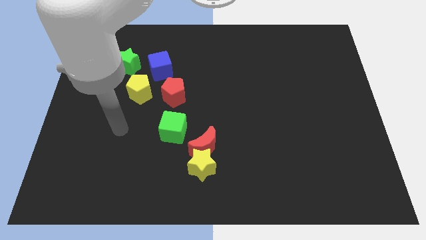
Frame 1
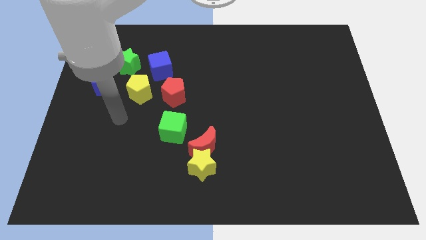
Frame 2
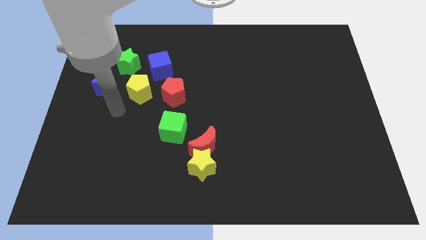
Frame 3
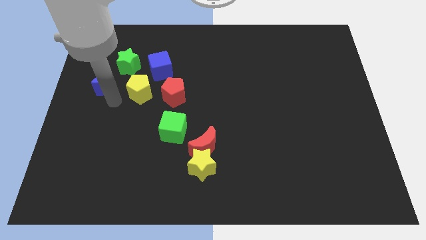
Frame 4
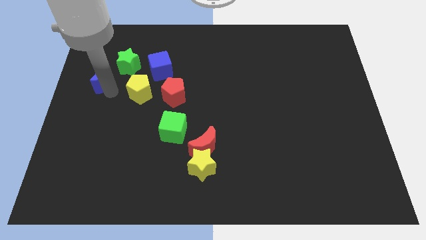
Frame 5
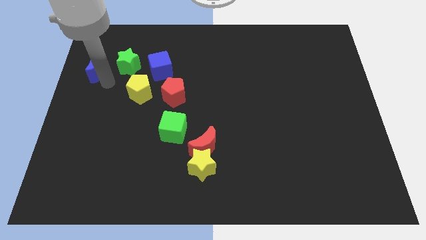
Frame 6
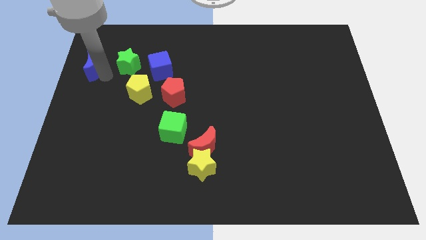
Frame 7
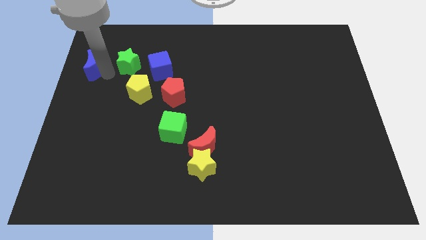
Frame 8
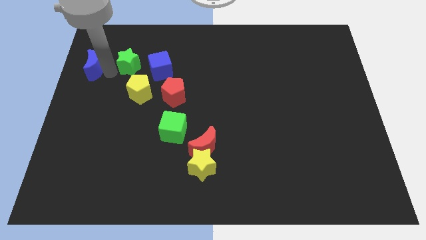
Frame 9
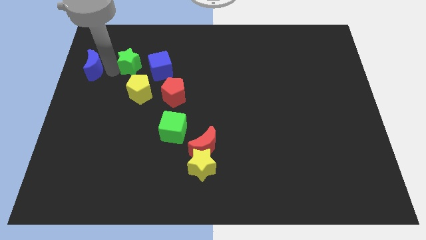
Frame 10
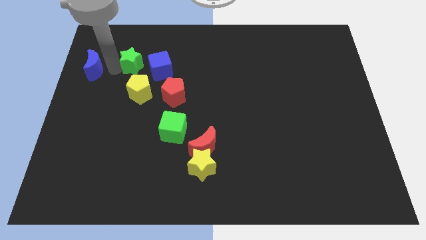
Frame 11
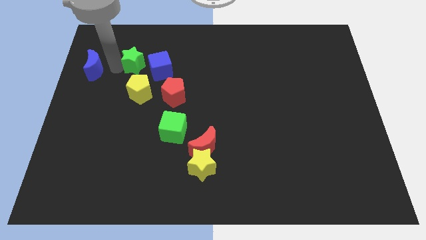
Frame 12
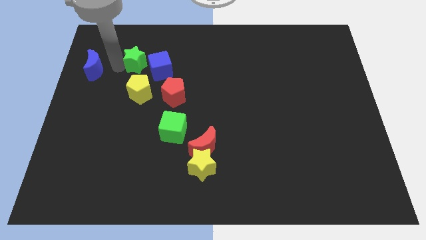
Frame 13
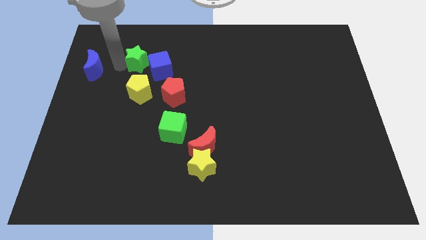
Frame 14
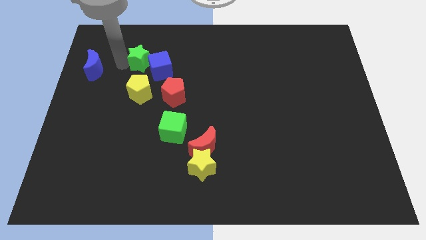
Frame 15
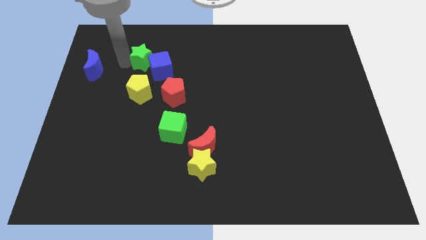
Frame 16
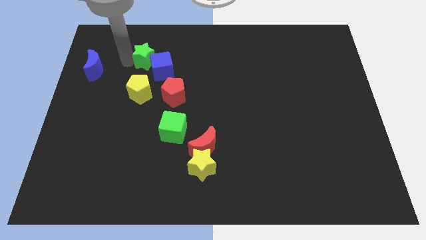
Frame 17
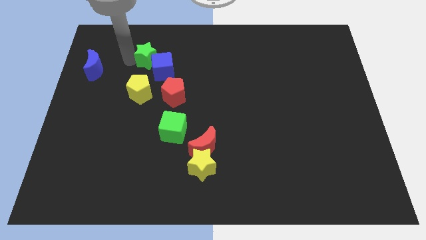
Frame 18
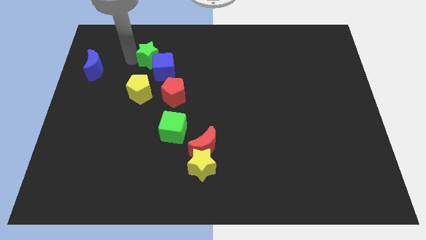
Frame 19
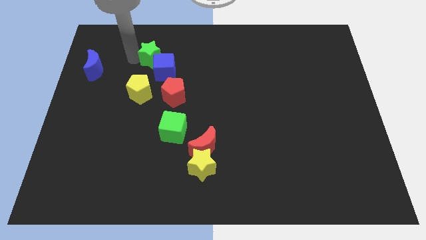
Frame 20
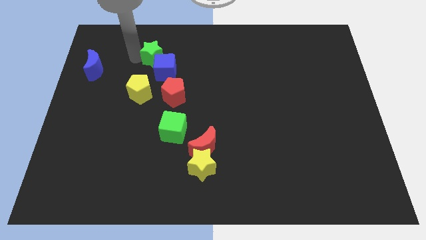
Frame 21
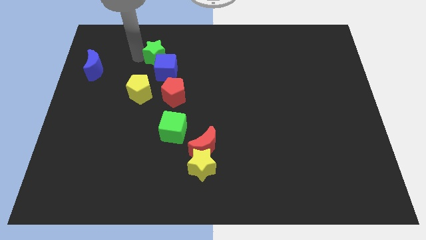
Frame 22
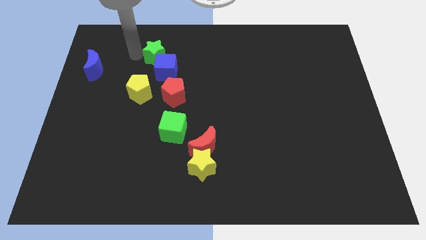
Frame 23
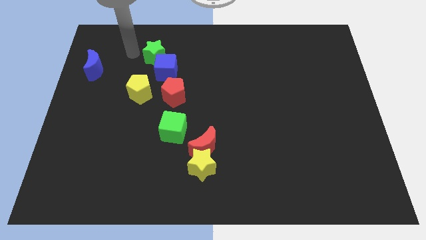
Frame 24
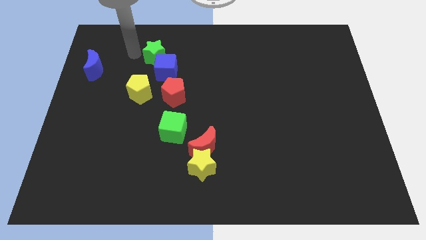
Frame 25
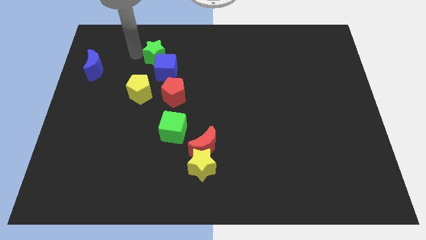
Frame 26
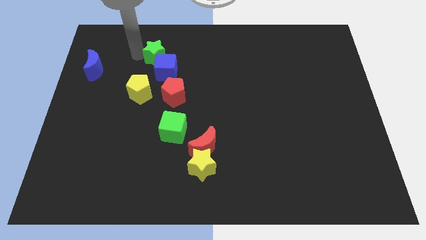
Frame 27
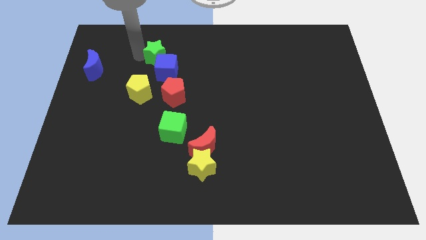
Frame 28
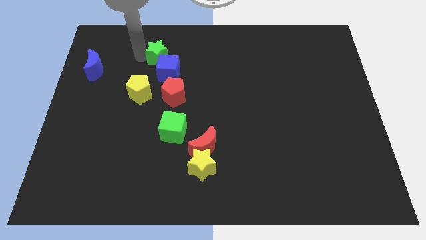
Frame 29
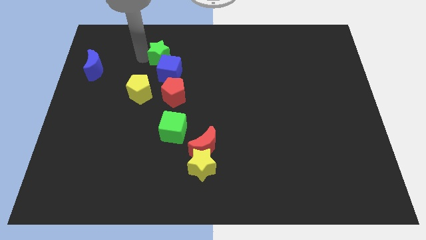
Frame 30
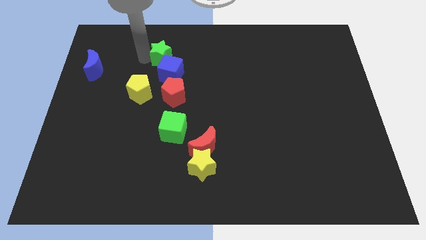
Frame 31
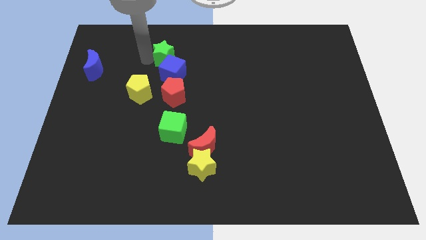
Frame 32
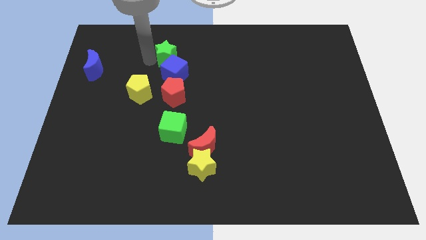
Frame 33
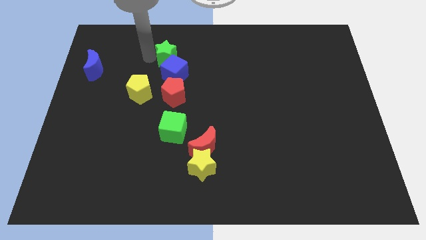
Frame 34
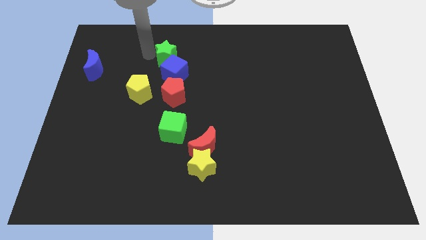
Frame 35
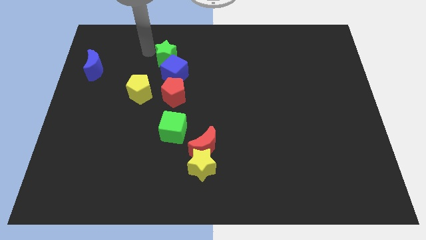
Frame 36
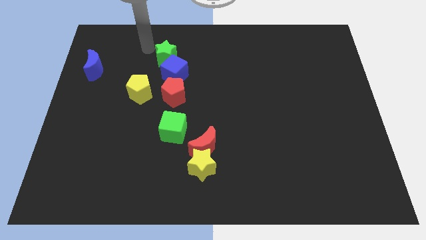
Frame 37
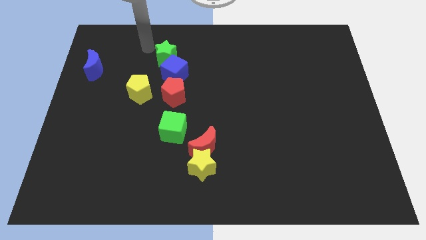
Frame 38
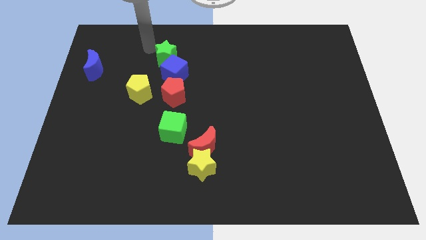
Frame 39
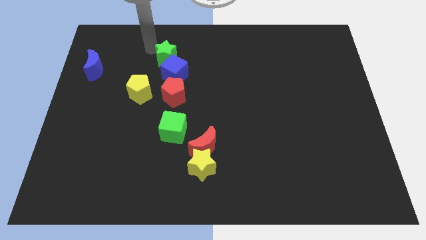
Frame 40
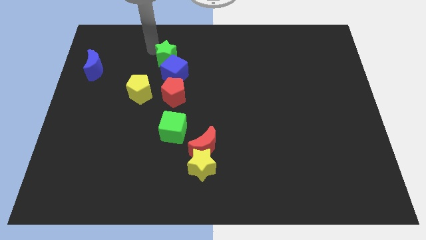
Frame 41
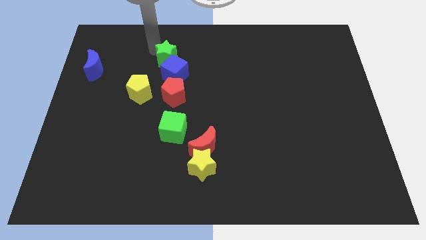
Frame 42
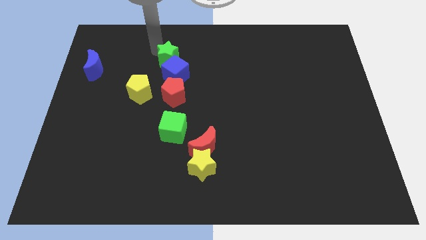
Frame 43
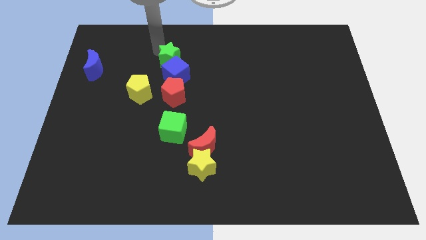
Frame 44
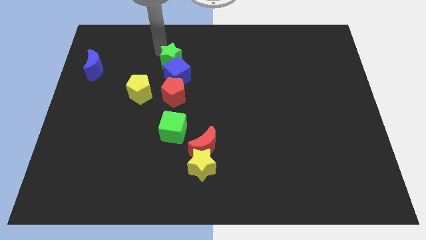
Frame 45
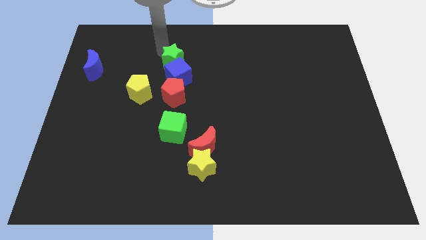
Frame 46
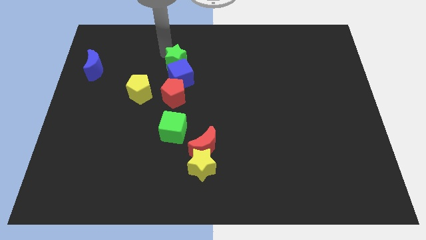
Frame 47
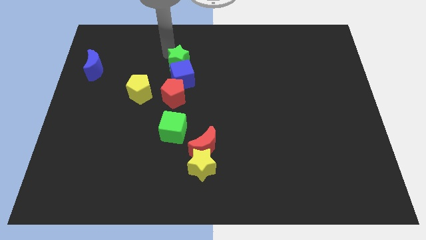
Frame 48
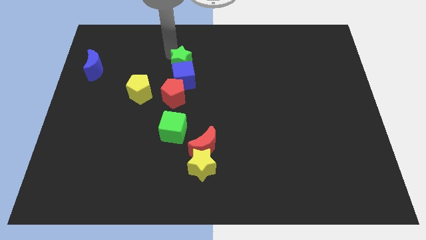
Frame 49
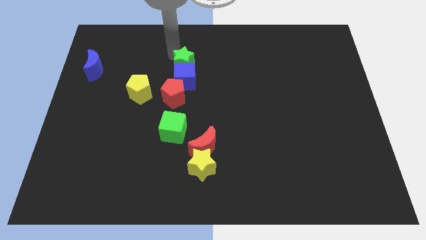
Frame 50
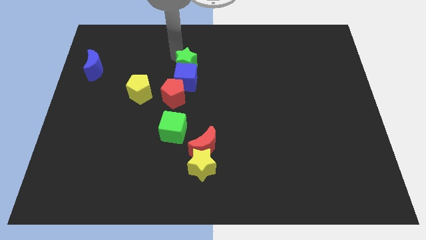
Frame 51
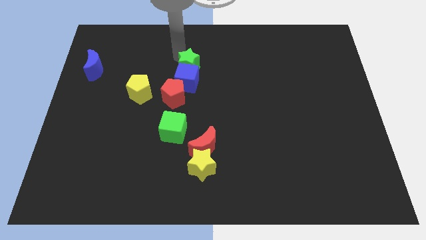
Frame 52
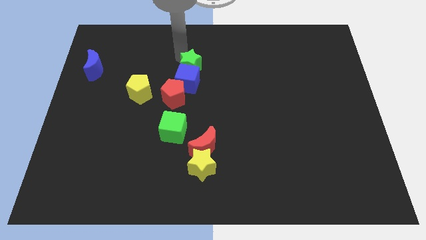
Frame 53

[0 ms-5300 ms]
move the green star to the middle of the board

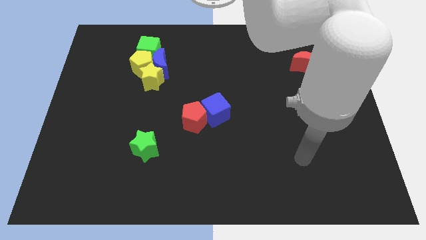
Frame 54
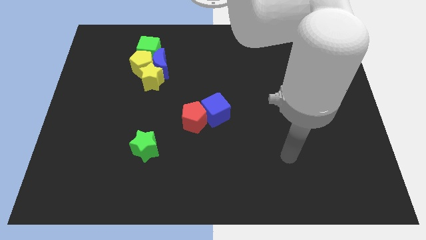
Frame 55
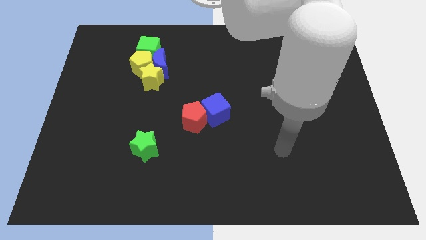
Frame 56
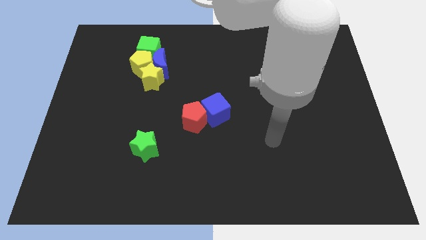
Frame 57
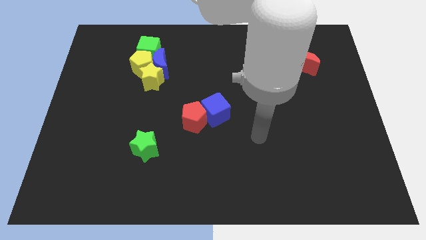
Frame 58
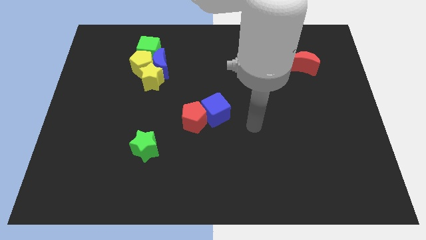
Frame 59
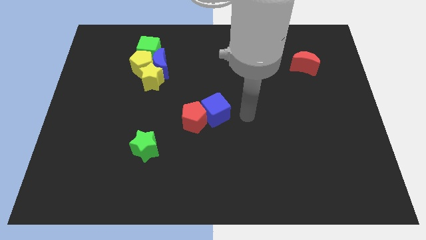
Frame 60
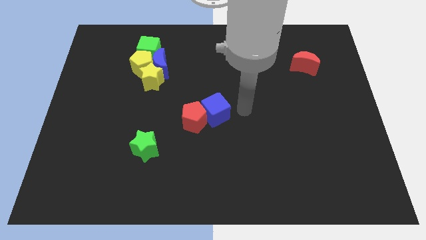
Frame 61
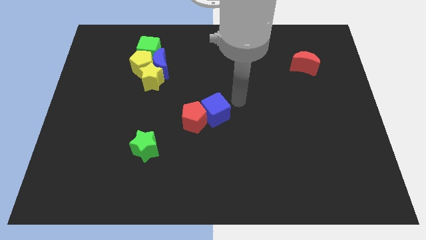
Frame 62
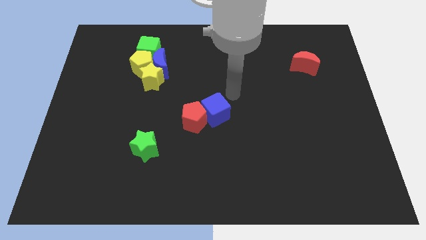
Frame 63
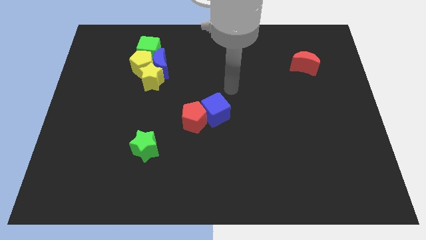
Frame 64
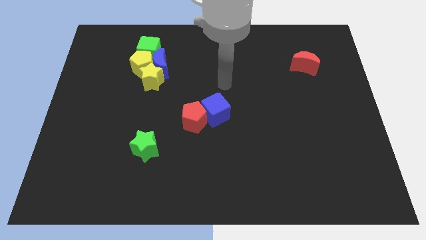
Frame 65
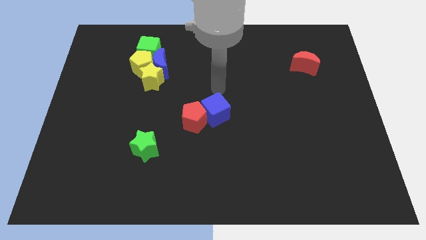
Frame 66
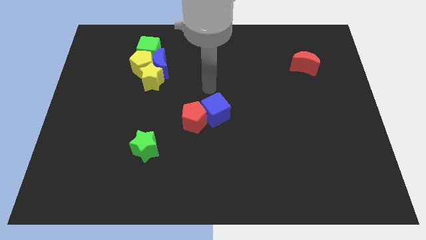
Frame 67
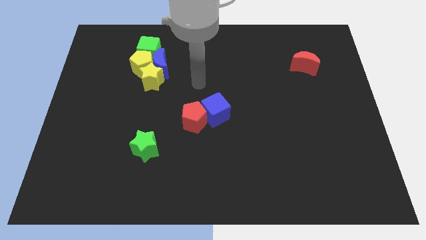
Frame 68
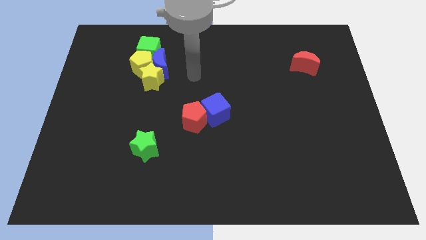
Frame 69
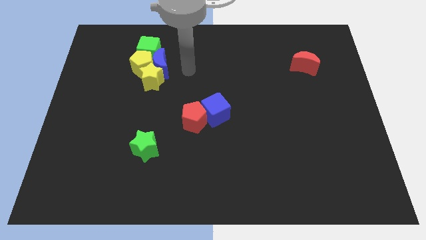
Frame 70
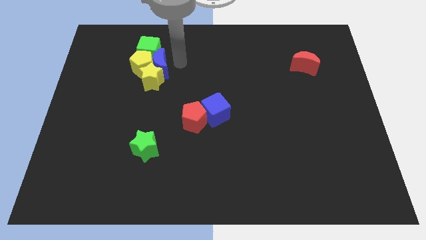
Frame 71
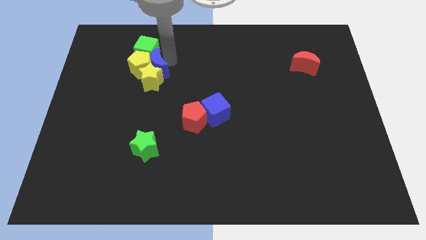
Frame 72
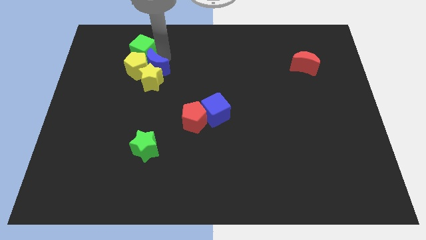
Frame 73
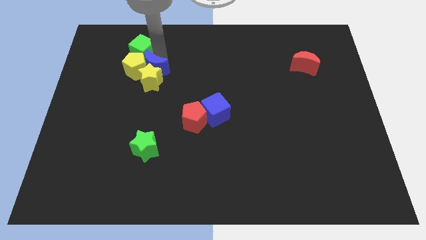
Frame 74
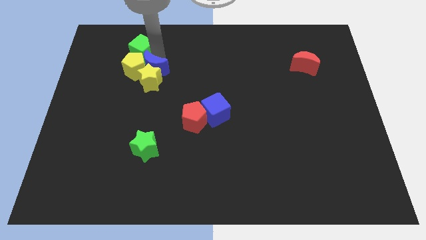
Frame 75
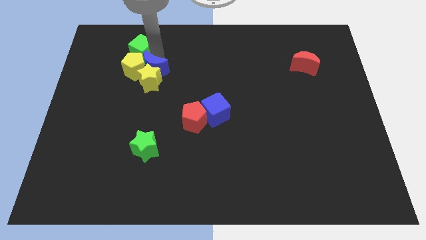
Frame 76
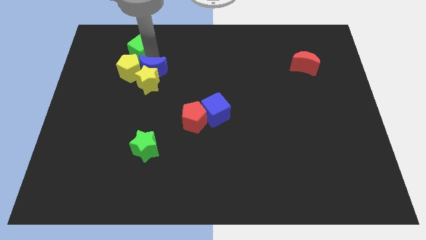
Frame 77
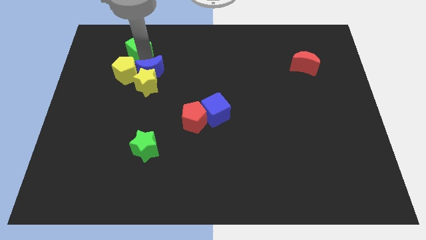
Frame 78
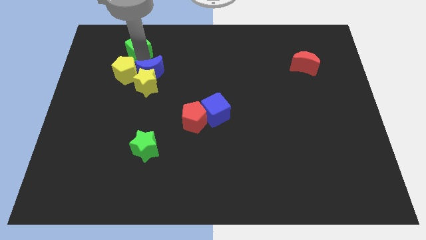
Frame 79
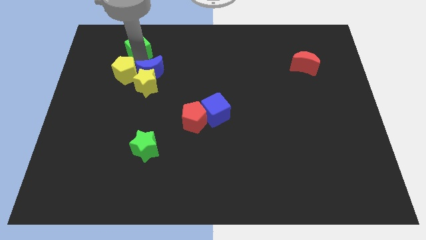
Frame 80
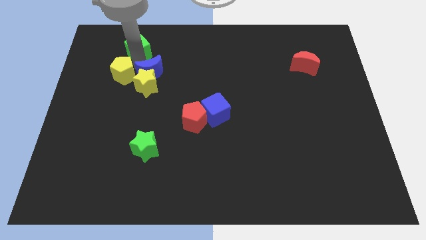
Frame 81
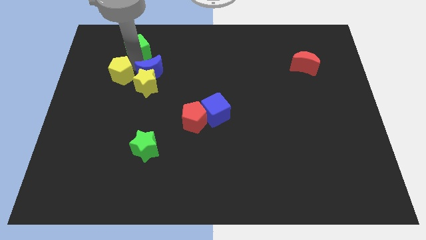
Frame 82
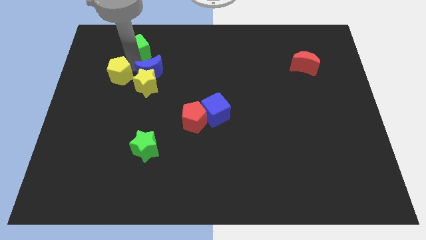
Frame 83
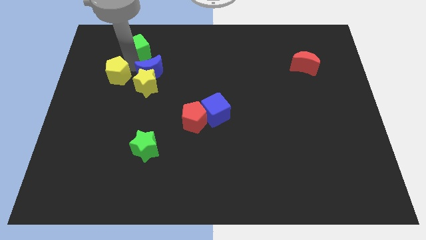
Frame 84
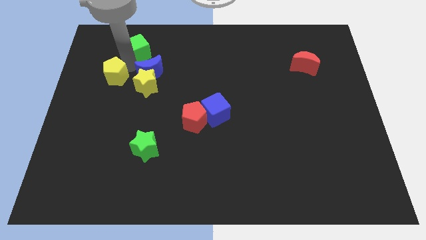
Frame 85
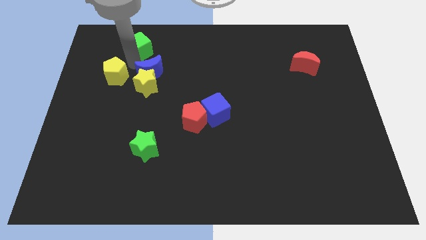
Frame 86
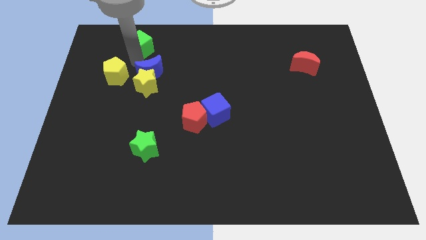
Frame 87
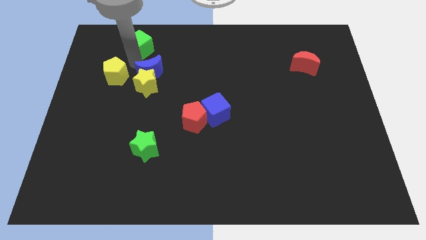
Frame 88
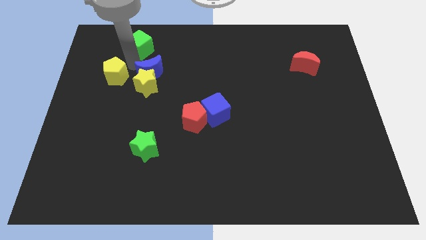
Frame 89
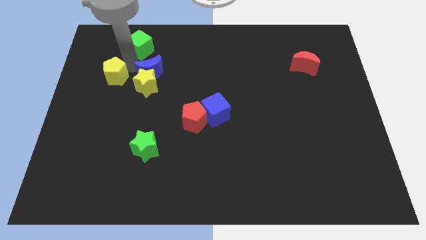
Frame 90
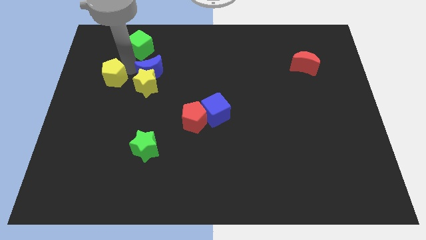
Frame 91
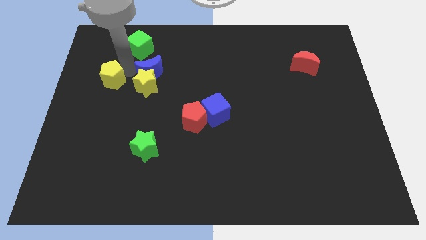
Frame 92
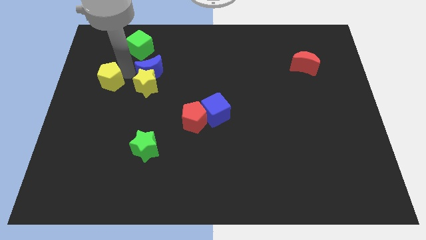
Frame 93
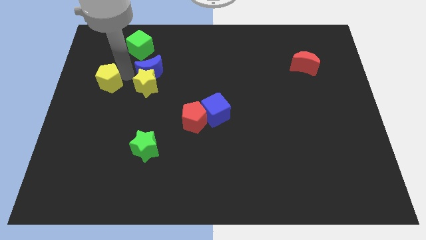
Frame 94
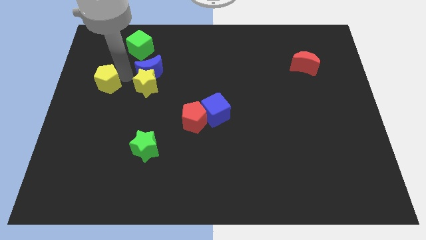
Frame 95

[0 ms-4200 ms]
put the yellow pentagon to the left side of the board
